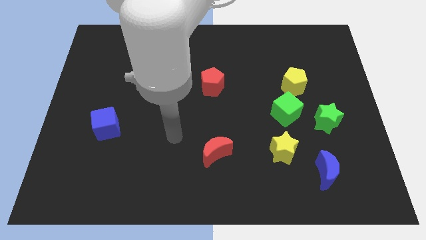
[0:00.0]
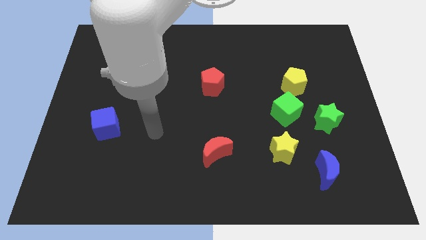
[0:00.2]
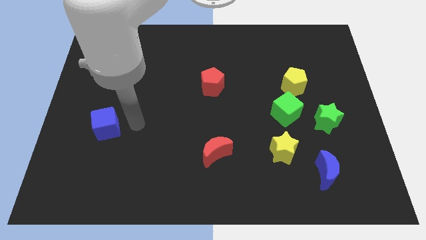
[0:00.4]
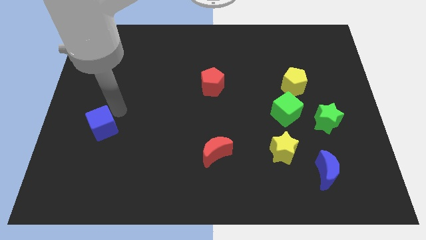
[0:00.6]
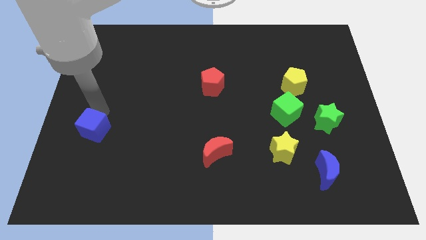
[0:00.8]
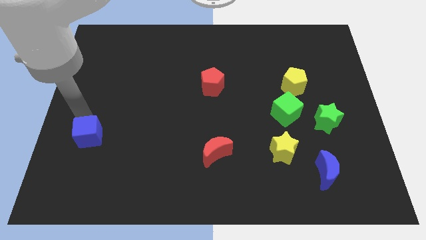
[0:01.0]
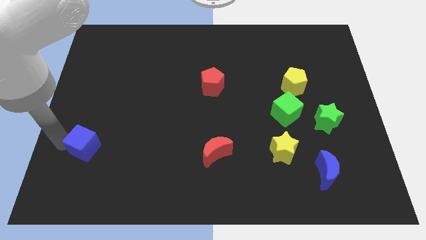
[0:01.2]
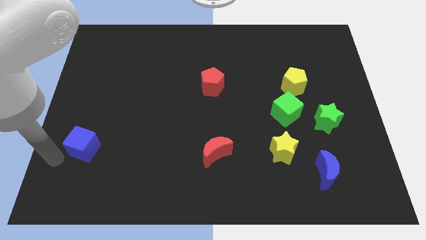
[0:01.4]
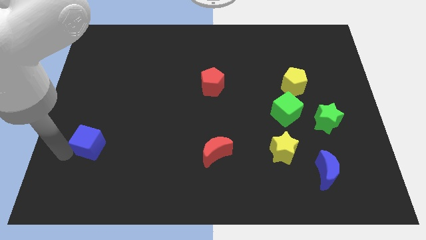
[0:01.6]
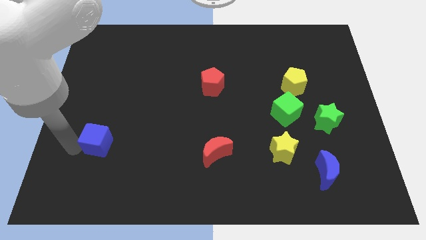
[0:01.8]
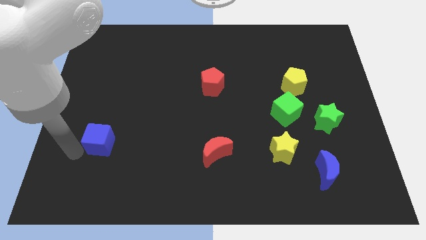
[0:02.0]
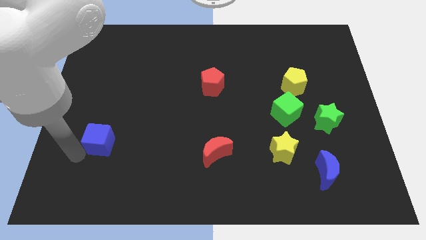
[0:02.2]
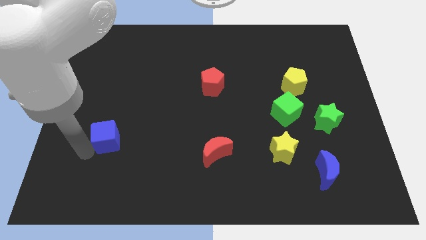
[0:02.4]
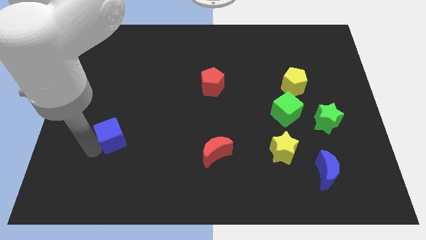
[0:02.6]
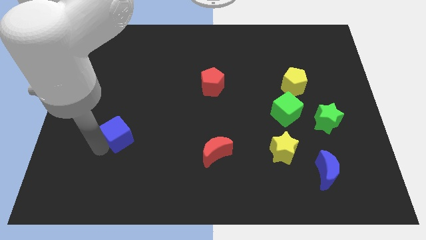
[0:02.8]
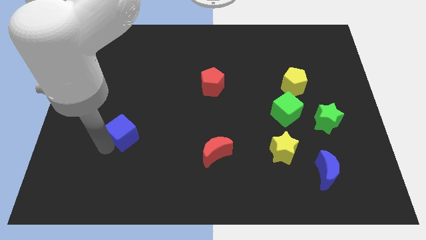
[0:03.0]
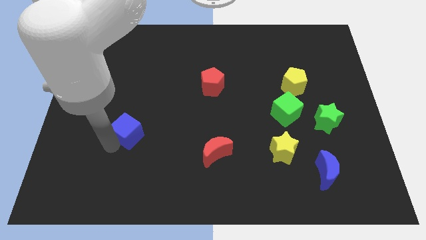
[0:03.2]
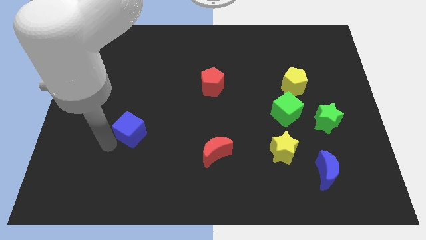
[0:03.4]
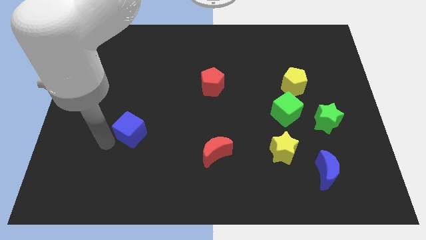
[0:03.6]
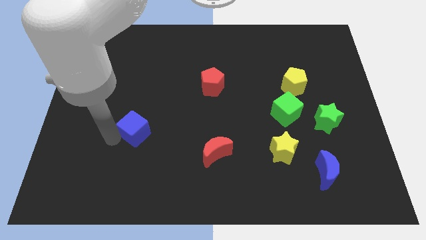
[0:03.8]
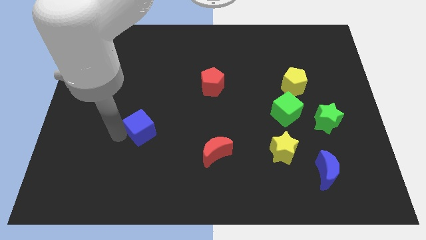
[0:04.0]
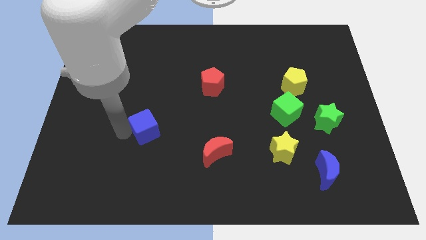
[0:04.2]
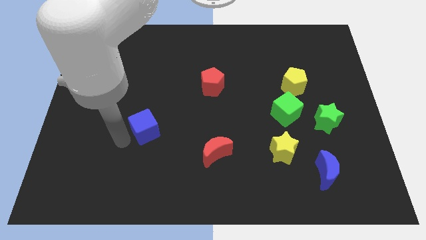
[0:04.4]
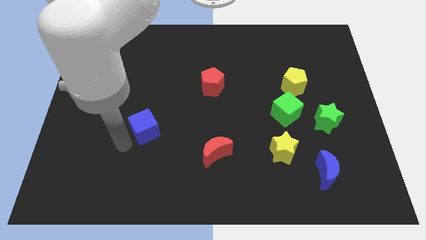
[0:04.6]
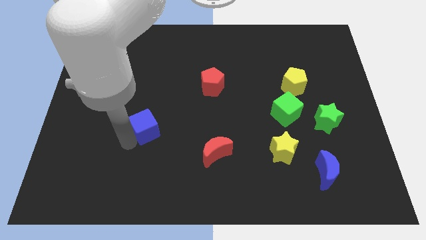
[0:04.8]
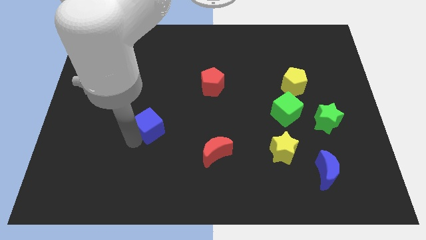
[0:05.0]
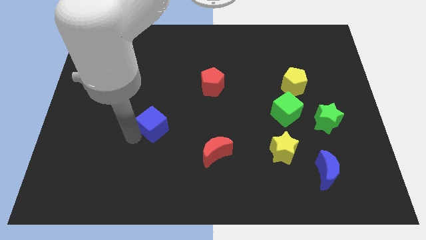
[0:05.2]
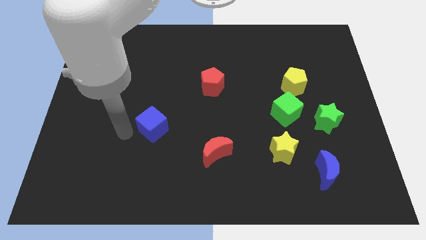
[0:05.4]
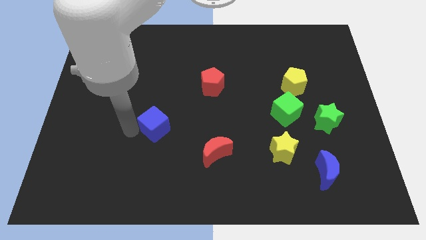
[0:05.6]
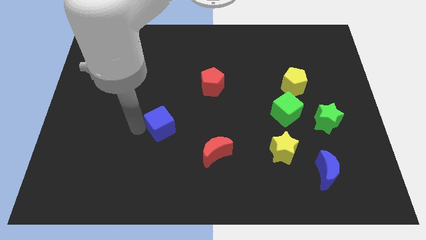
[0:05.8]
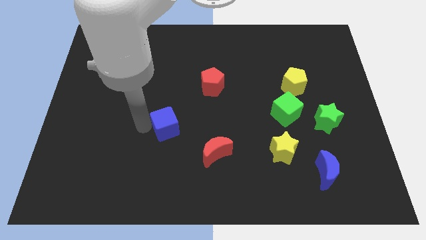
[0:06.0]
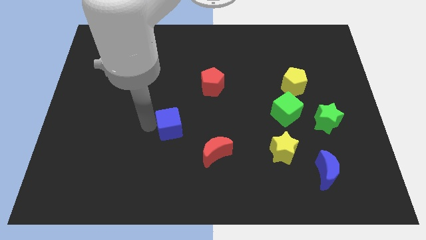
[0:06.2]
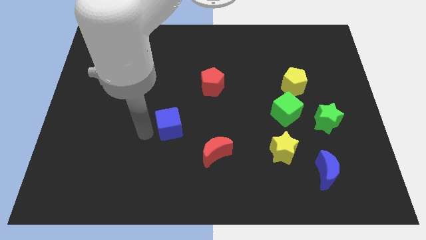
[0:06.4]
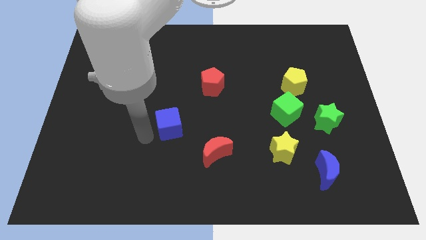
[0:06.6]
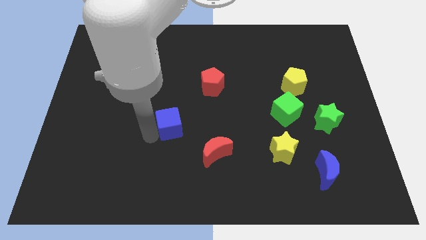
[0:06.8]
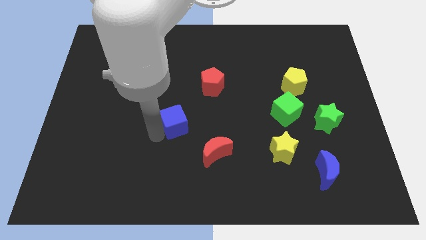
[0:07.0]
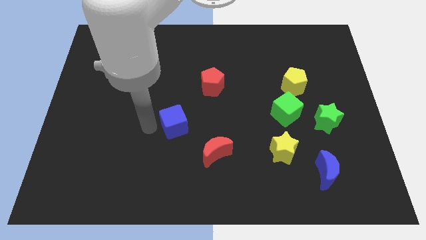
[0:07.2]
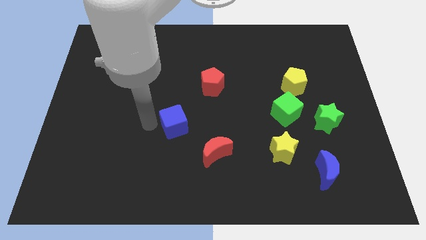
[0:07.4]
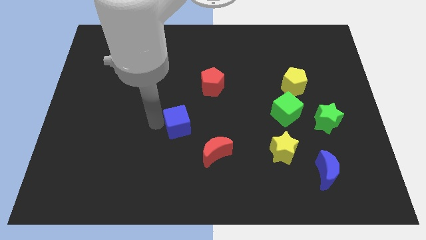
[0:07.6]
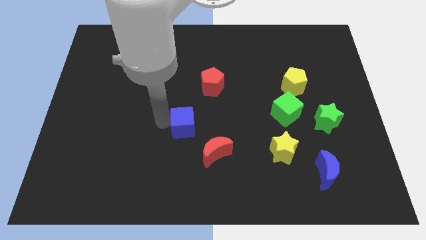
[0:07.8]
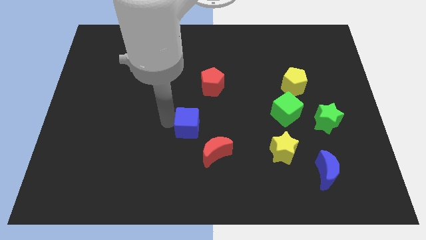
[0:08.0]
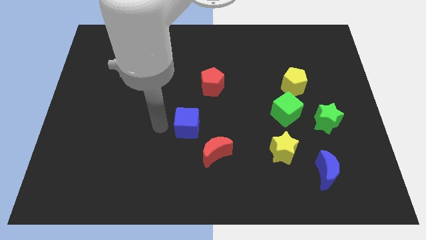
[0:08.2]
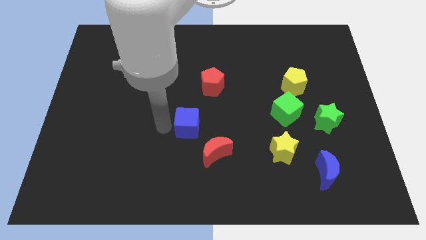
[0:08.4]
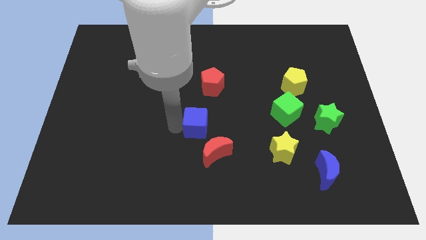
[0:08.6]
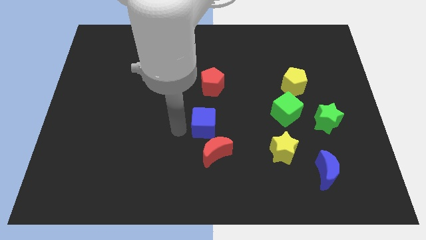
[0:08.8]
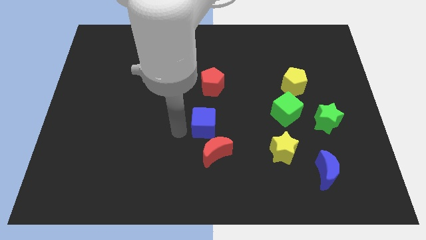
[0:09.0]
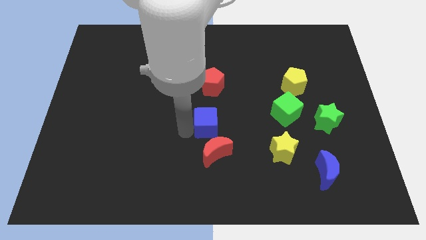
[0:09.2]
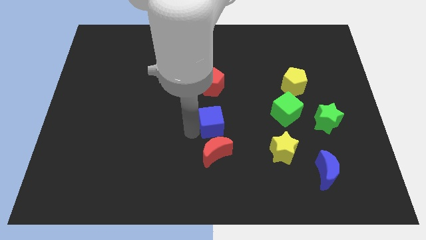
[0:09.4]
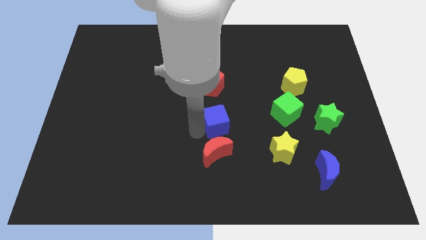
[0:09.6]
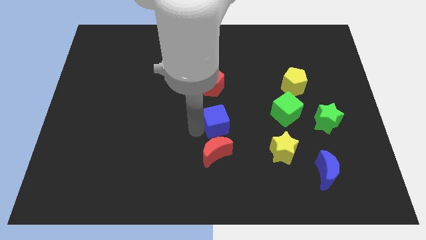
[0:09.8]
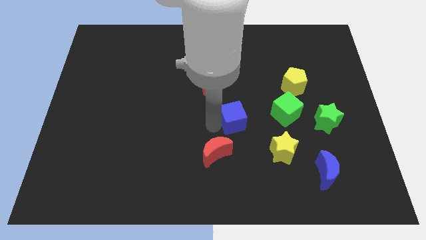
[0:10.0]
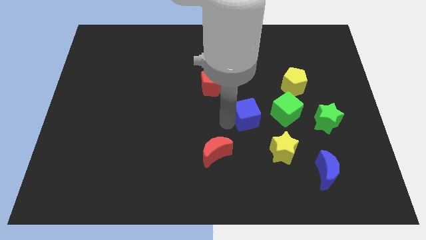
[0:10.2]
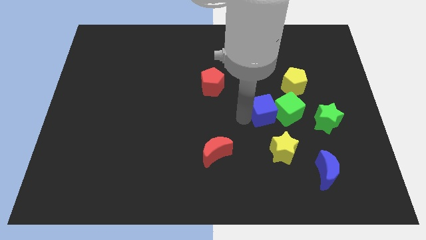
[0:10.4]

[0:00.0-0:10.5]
put the blue cube next to the green cube

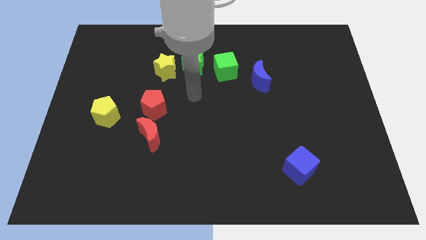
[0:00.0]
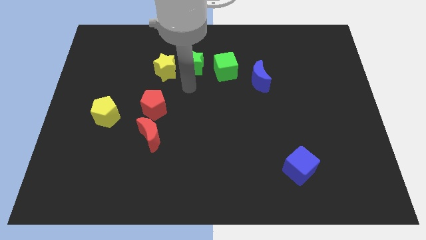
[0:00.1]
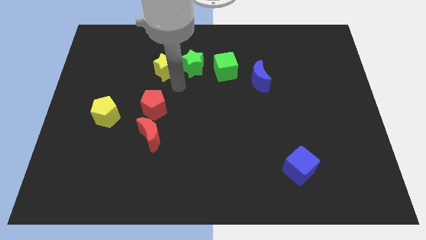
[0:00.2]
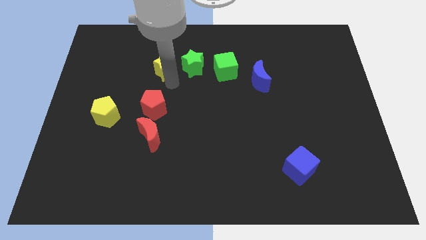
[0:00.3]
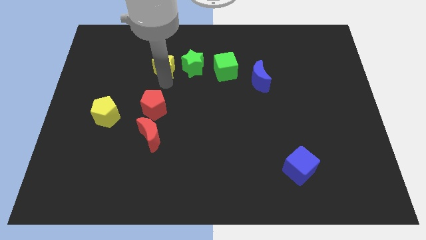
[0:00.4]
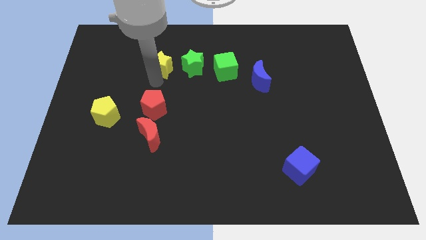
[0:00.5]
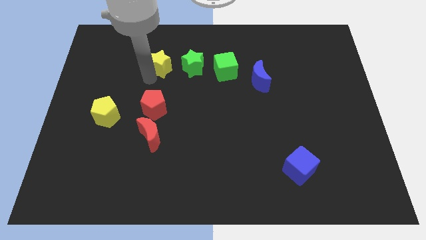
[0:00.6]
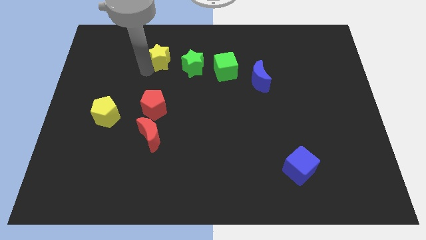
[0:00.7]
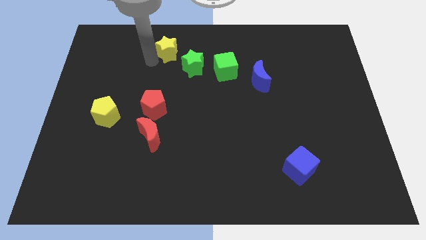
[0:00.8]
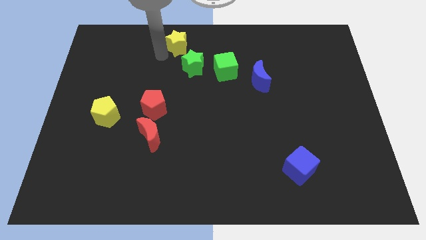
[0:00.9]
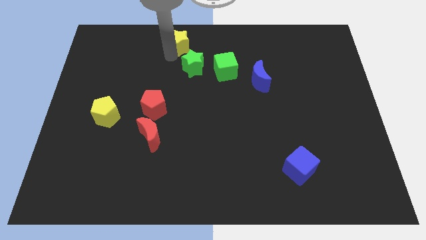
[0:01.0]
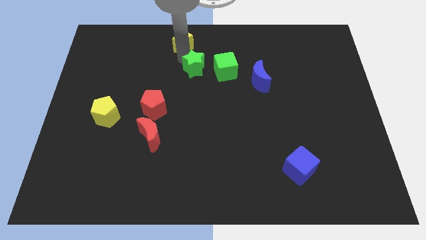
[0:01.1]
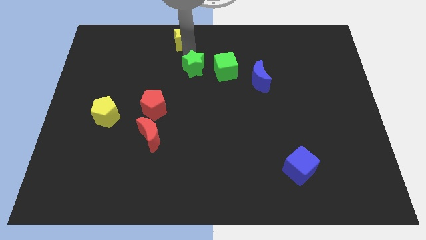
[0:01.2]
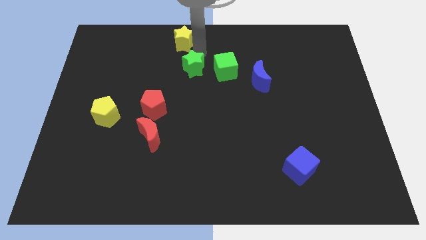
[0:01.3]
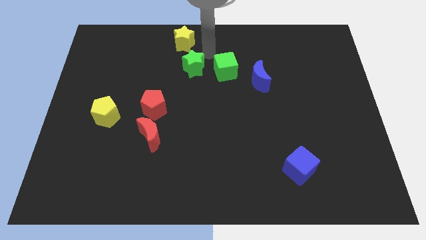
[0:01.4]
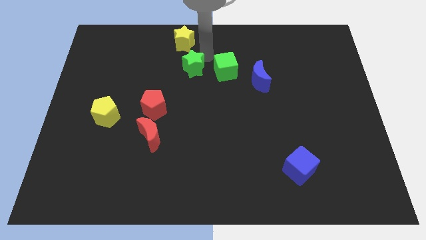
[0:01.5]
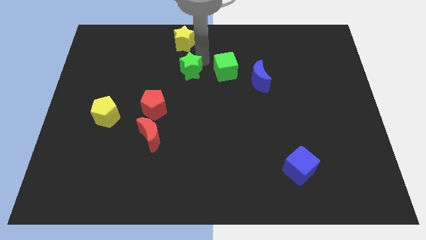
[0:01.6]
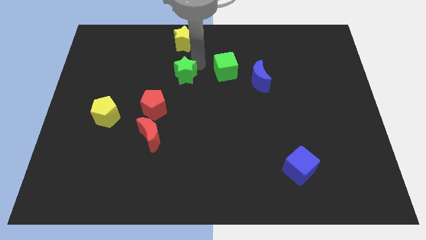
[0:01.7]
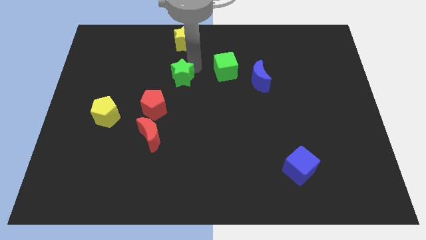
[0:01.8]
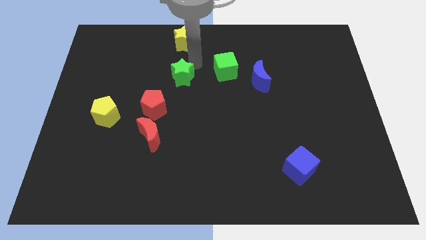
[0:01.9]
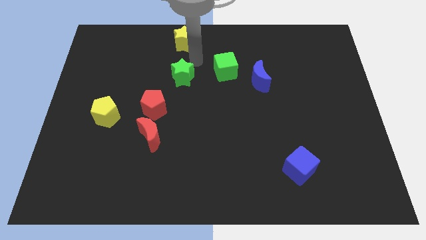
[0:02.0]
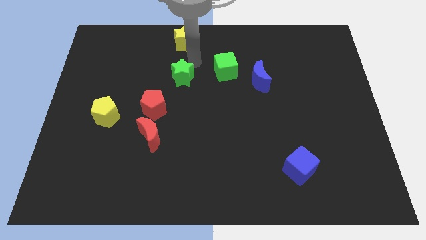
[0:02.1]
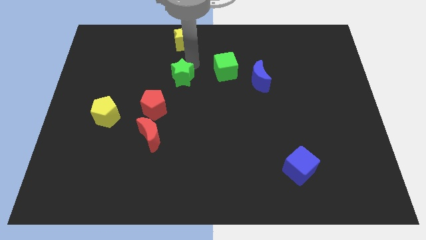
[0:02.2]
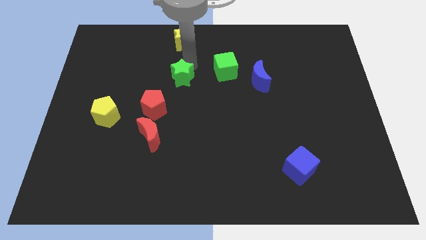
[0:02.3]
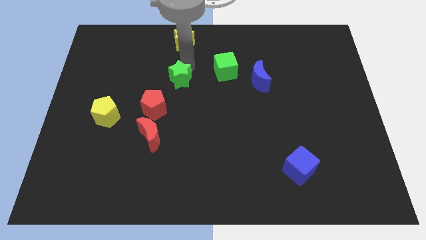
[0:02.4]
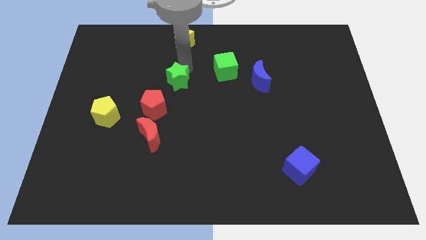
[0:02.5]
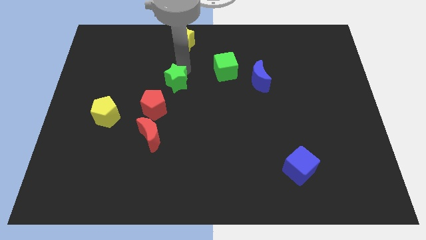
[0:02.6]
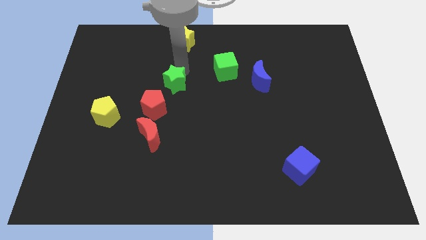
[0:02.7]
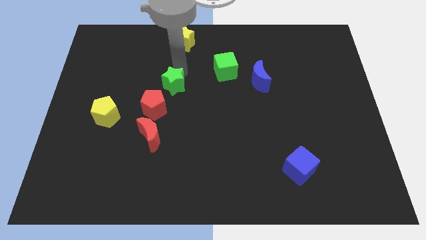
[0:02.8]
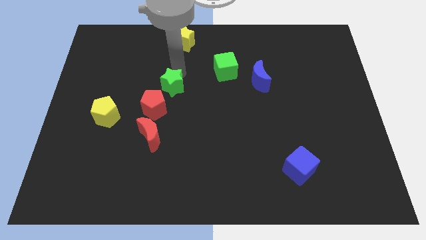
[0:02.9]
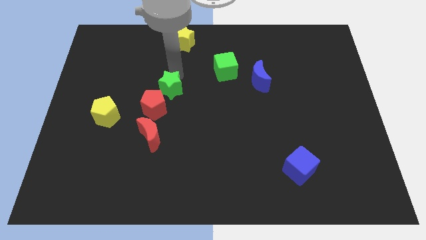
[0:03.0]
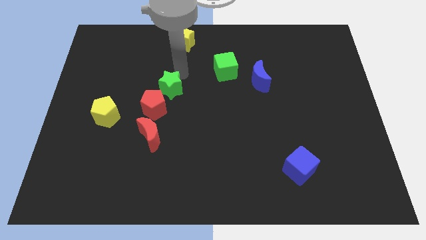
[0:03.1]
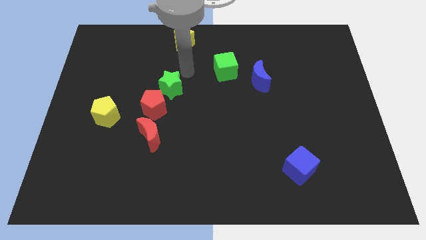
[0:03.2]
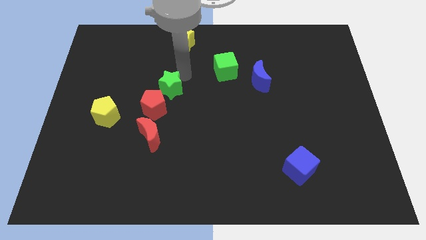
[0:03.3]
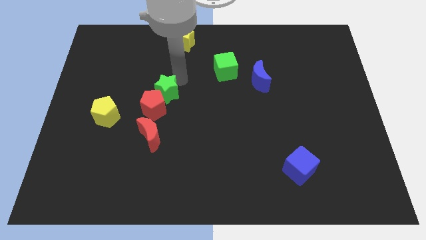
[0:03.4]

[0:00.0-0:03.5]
move the green star next to the red pentagon
